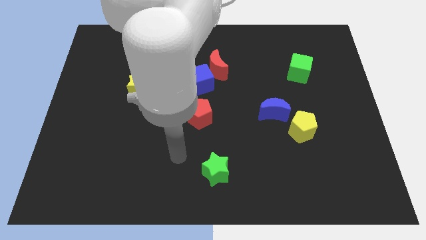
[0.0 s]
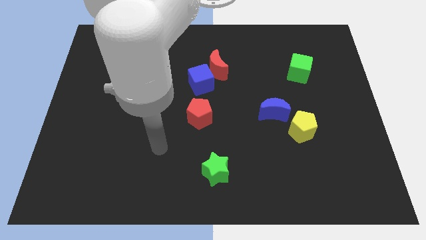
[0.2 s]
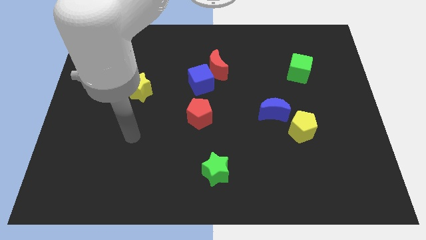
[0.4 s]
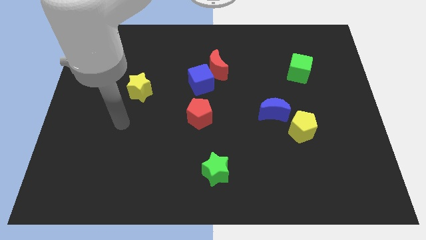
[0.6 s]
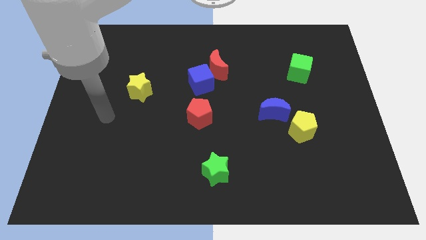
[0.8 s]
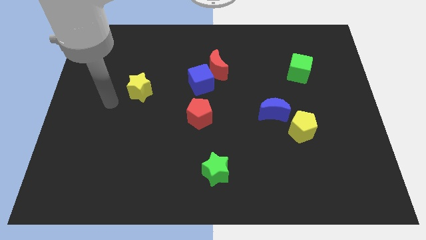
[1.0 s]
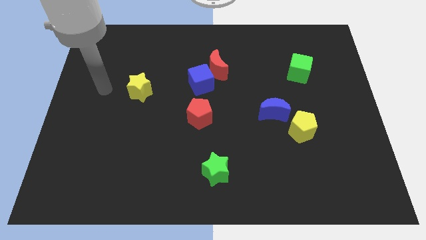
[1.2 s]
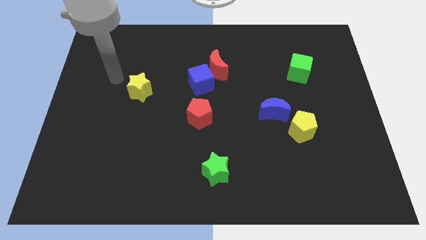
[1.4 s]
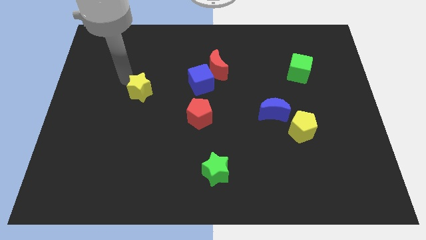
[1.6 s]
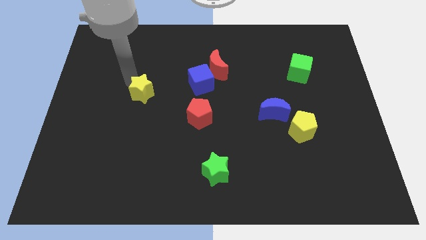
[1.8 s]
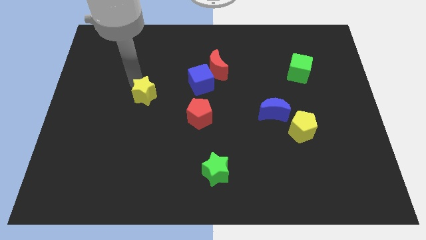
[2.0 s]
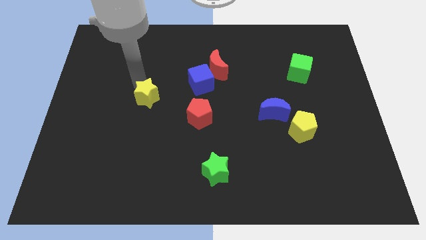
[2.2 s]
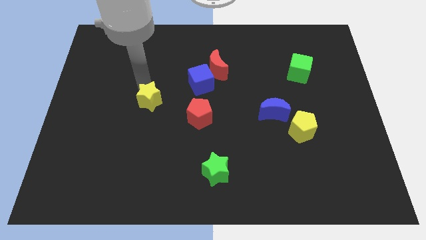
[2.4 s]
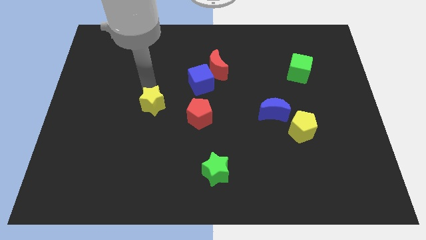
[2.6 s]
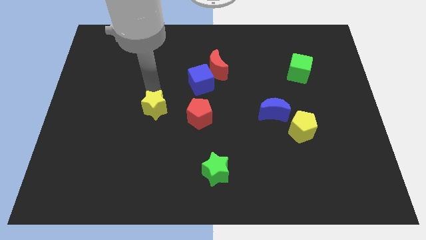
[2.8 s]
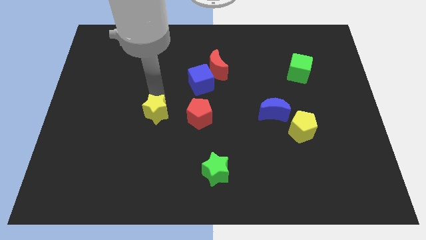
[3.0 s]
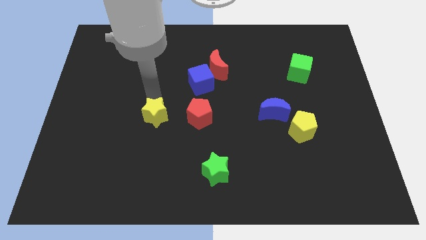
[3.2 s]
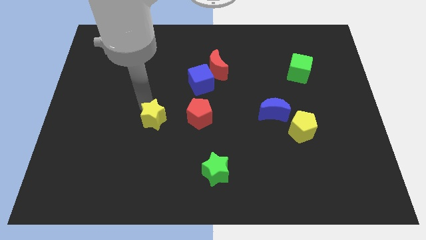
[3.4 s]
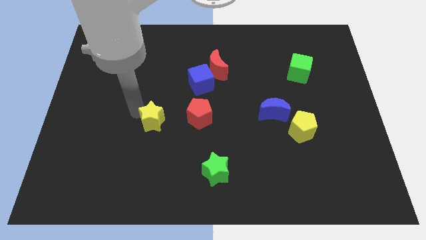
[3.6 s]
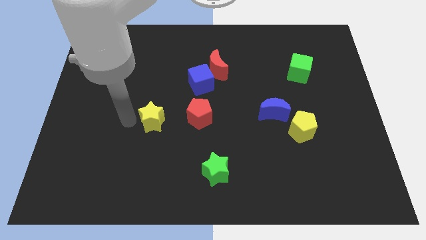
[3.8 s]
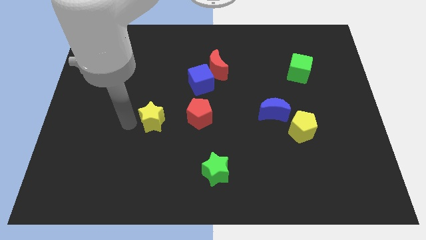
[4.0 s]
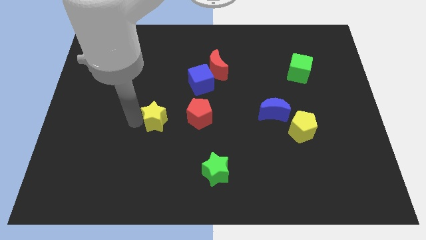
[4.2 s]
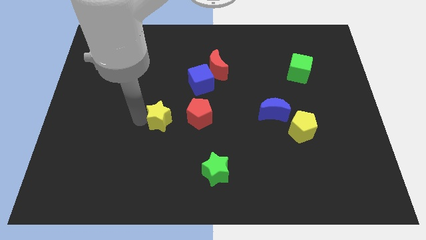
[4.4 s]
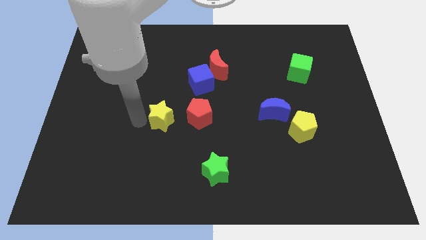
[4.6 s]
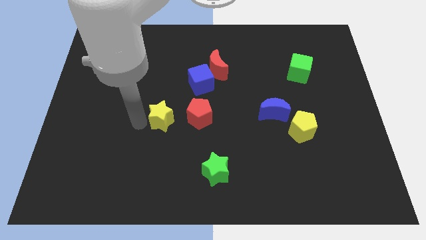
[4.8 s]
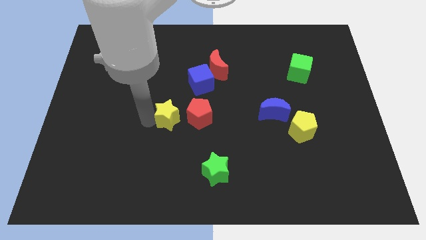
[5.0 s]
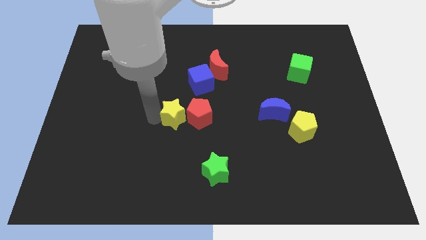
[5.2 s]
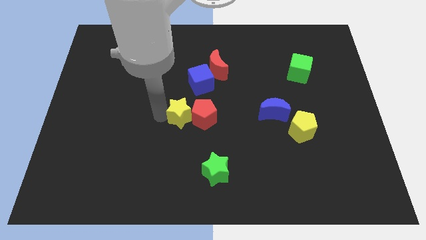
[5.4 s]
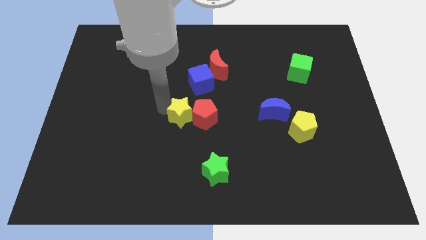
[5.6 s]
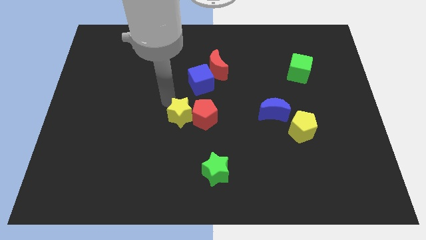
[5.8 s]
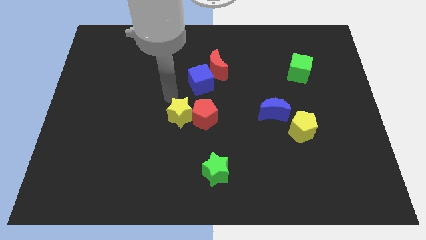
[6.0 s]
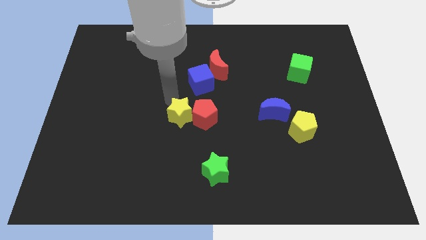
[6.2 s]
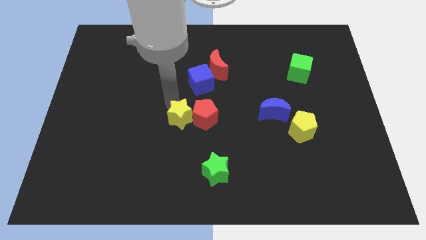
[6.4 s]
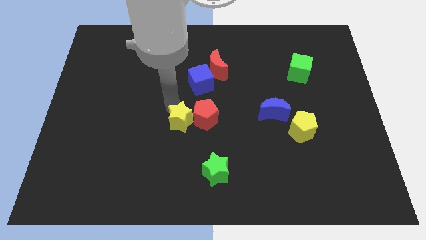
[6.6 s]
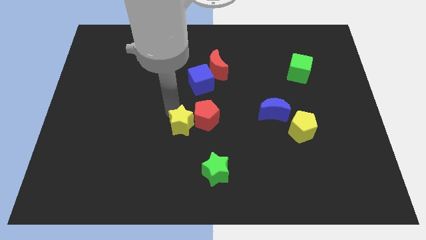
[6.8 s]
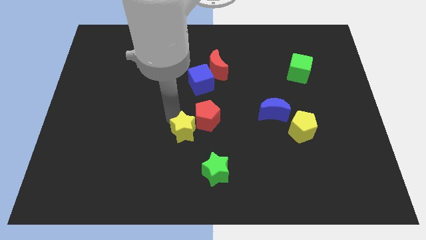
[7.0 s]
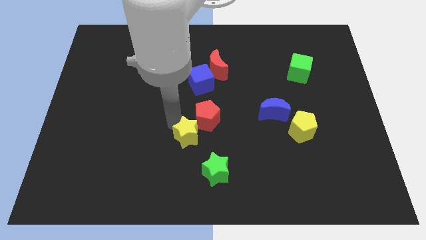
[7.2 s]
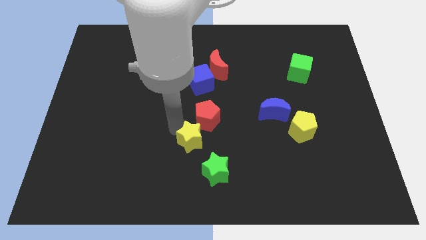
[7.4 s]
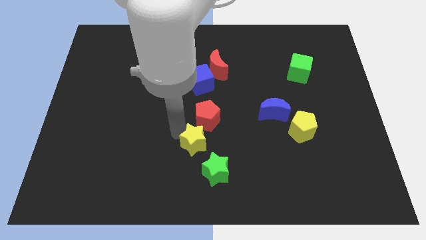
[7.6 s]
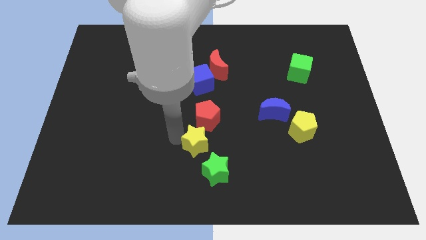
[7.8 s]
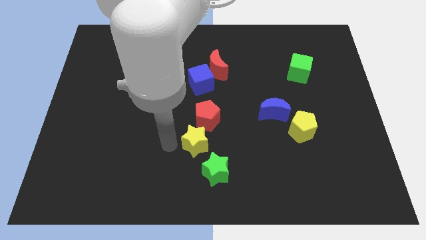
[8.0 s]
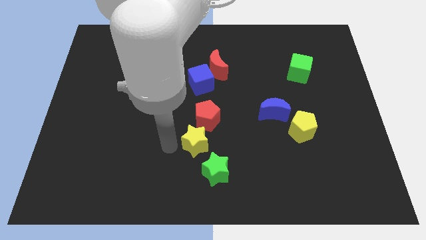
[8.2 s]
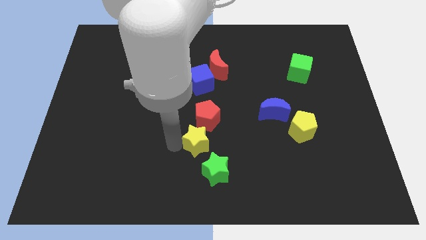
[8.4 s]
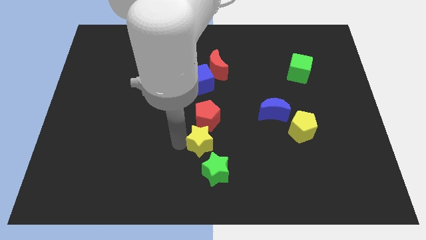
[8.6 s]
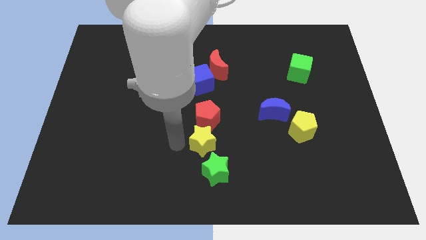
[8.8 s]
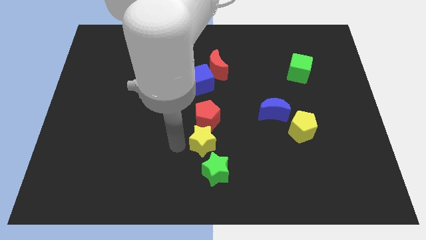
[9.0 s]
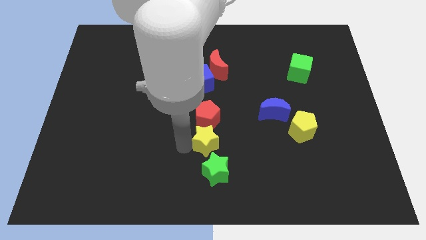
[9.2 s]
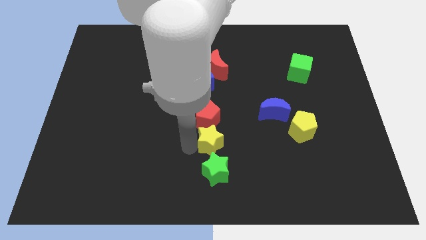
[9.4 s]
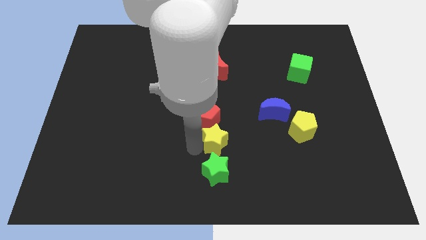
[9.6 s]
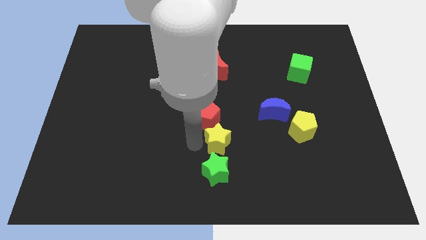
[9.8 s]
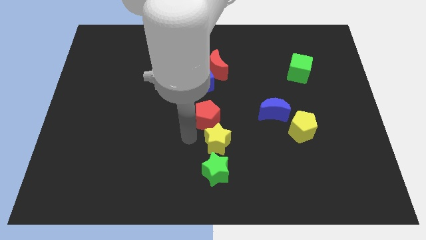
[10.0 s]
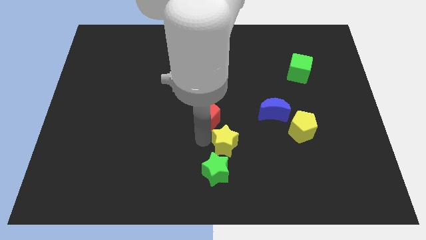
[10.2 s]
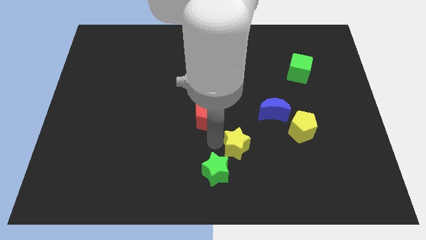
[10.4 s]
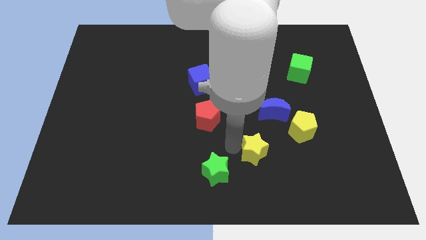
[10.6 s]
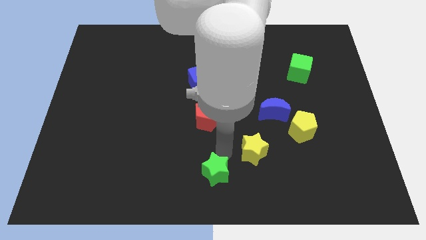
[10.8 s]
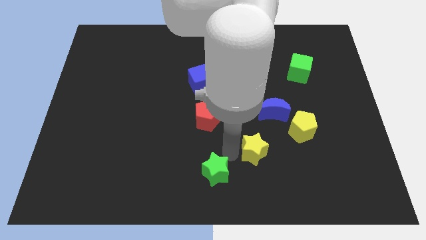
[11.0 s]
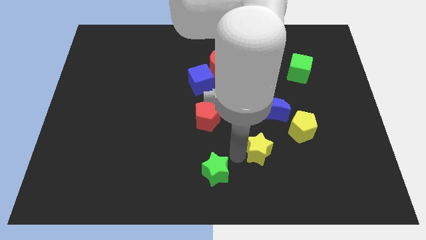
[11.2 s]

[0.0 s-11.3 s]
move the yellow star to the bottom left of the yellow pentagon

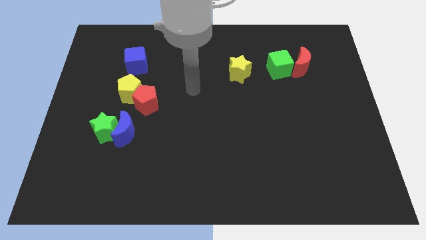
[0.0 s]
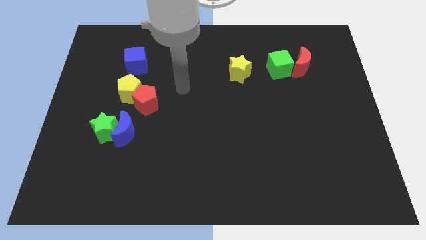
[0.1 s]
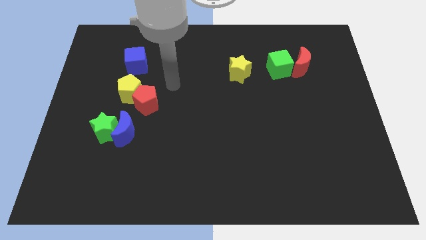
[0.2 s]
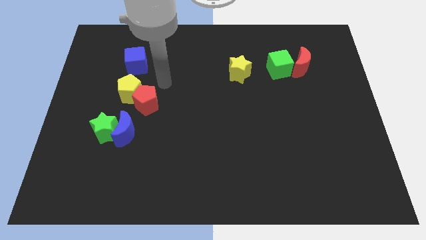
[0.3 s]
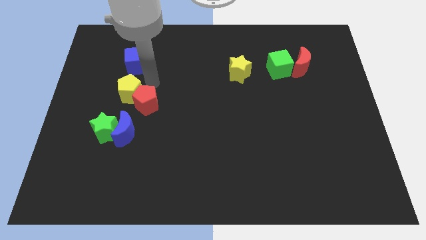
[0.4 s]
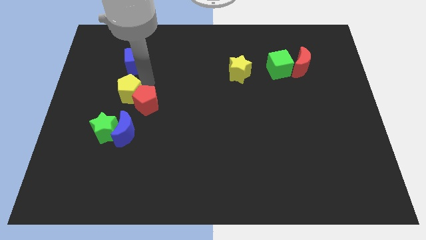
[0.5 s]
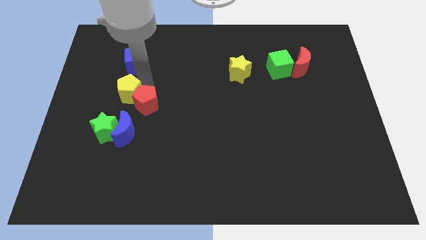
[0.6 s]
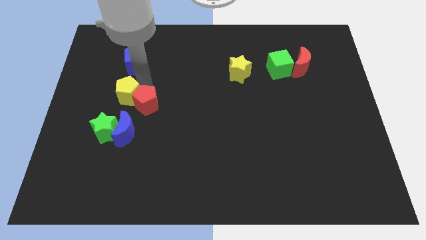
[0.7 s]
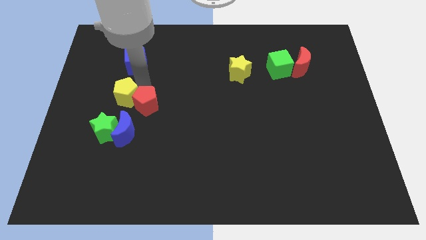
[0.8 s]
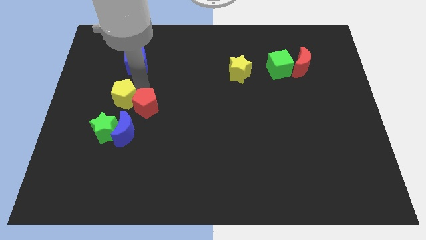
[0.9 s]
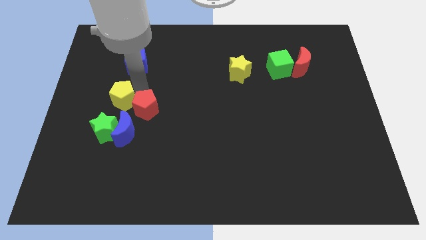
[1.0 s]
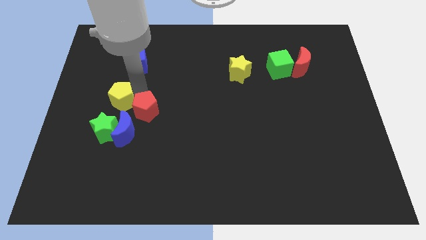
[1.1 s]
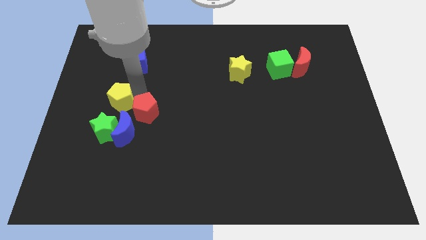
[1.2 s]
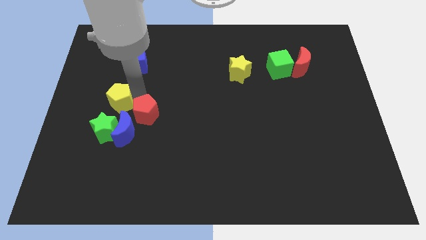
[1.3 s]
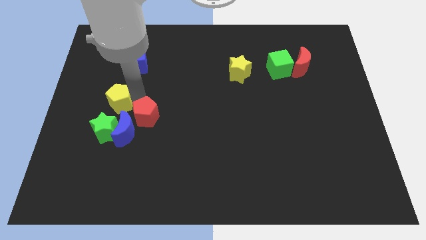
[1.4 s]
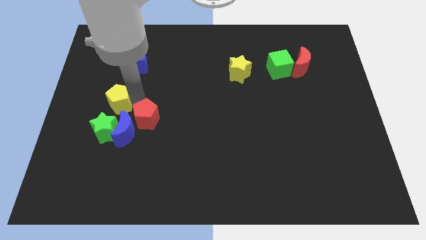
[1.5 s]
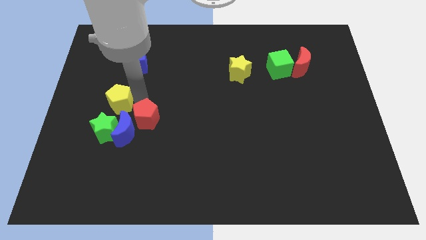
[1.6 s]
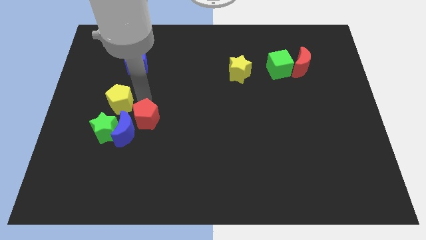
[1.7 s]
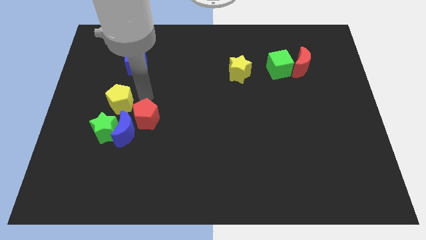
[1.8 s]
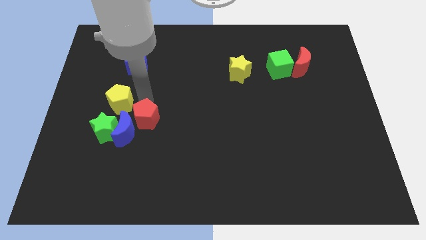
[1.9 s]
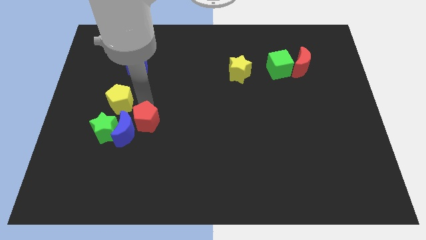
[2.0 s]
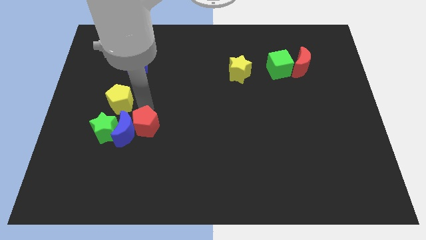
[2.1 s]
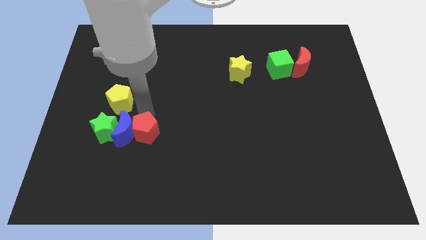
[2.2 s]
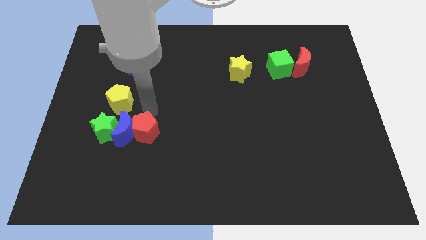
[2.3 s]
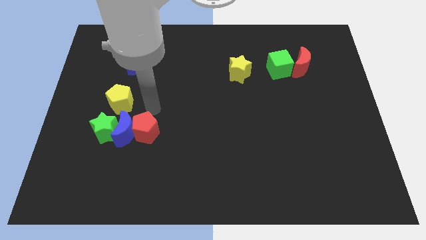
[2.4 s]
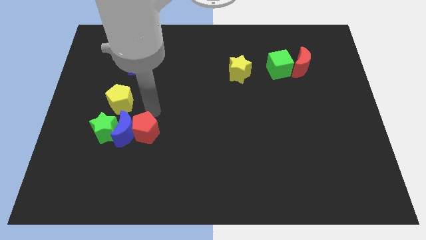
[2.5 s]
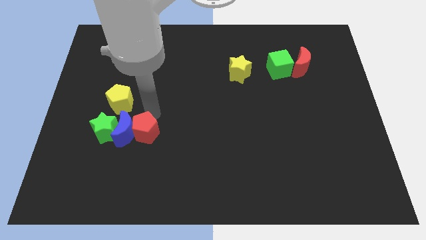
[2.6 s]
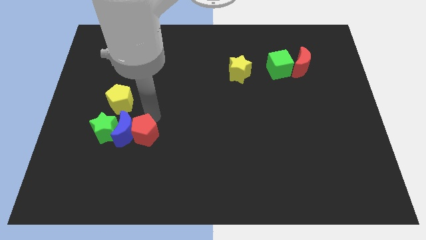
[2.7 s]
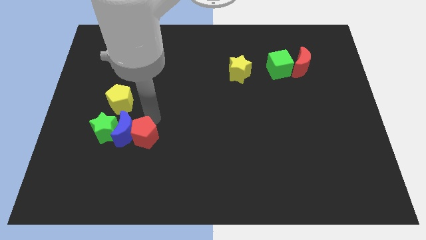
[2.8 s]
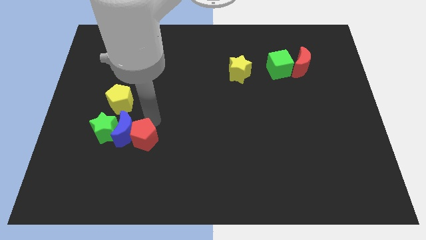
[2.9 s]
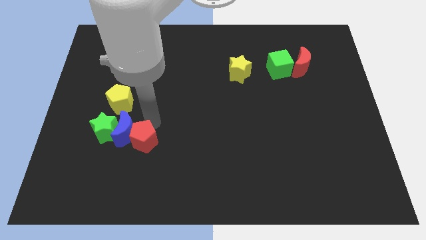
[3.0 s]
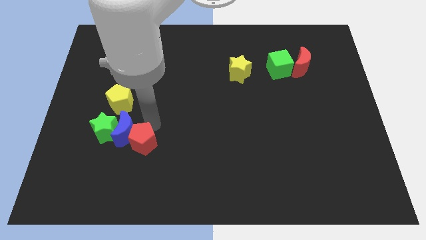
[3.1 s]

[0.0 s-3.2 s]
slide the red pentagon to the bottom of the blue moon
